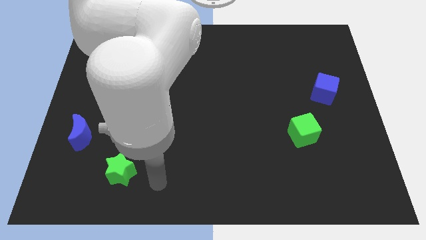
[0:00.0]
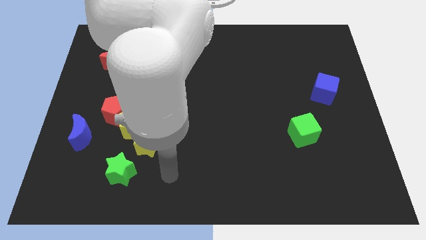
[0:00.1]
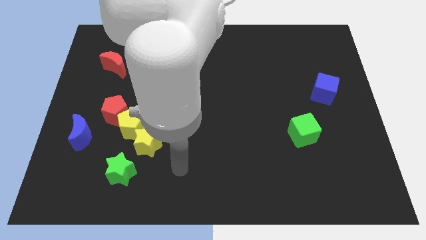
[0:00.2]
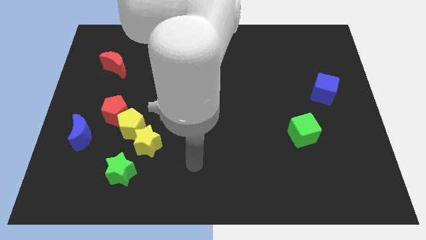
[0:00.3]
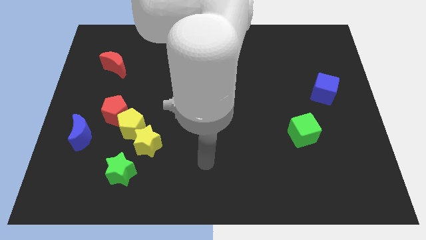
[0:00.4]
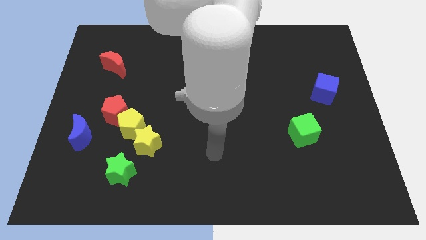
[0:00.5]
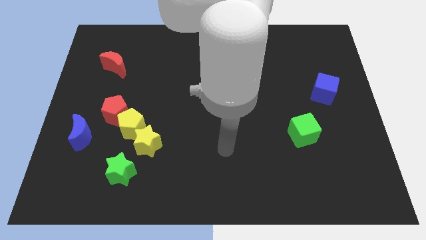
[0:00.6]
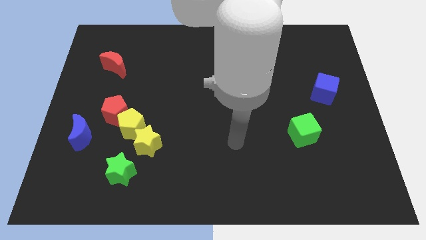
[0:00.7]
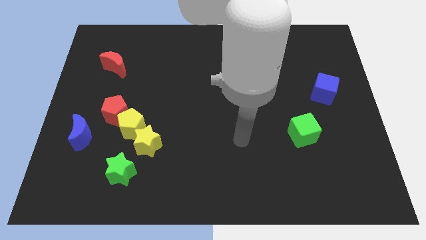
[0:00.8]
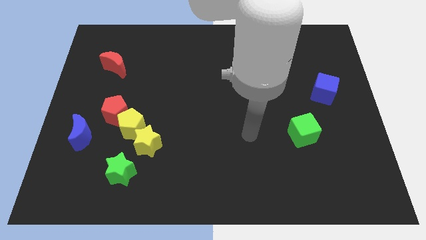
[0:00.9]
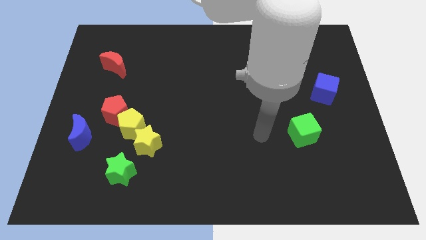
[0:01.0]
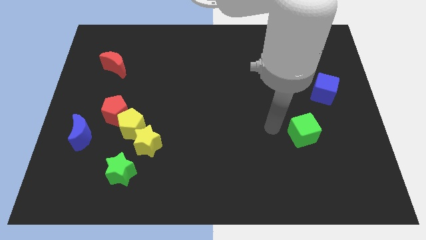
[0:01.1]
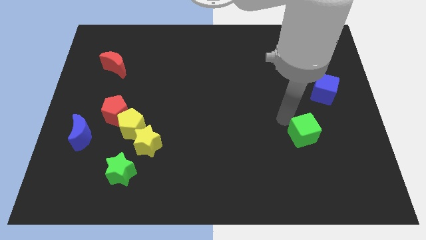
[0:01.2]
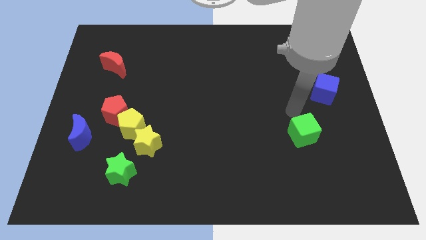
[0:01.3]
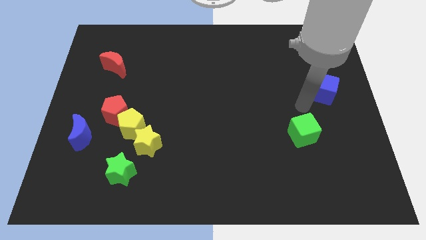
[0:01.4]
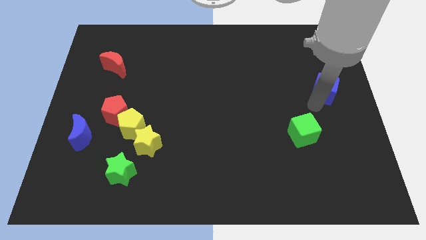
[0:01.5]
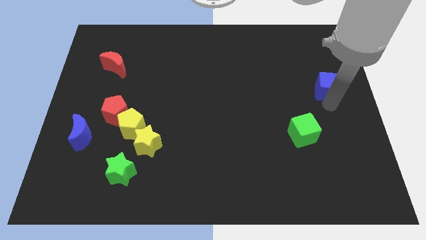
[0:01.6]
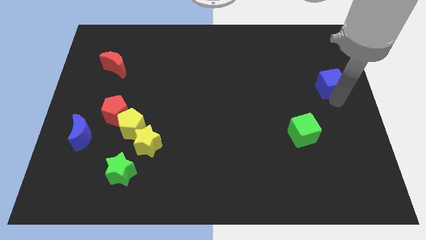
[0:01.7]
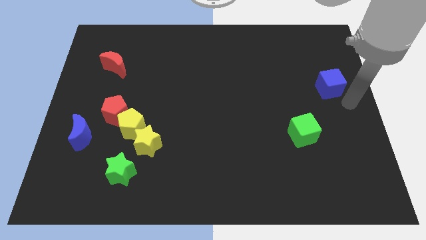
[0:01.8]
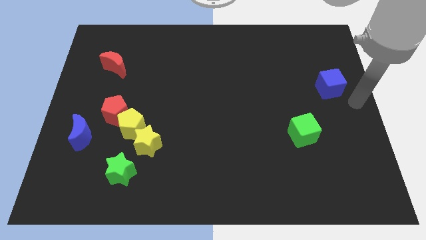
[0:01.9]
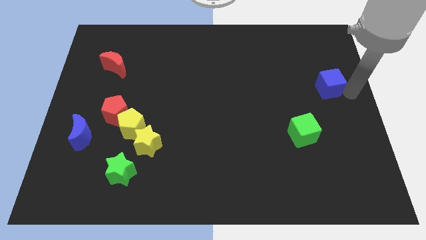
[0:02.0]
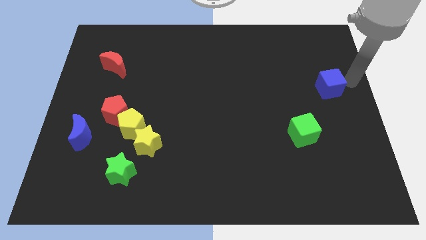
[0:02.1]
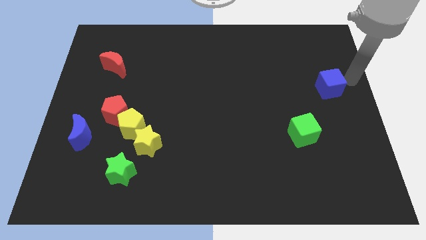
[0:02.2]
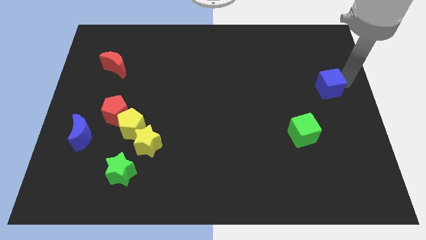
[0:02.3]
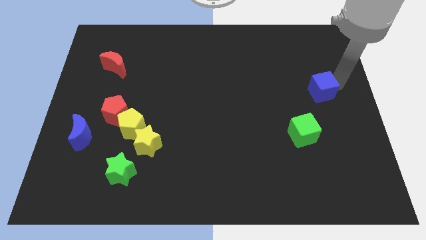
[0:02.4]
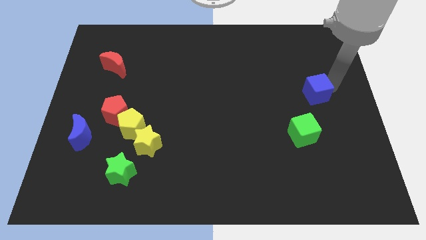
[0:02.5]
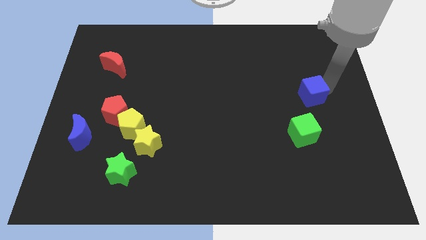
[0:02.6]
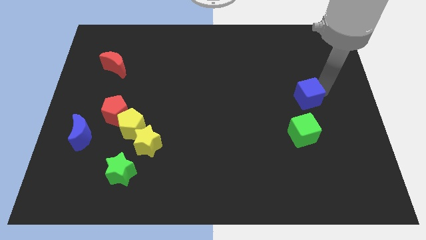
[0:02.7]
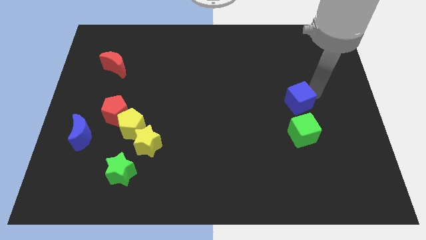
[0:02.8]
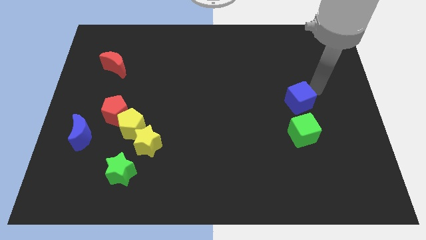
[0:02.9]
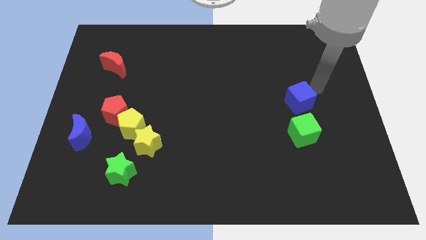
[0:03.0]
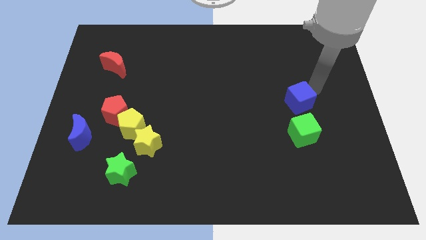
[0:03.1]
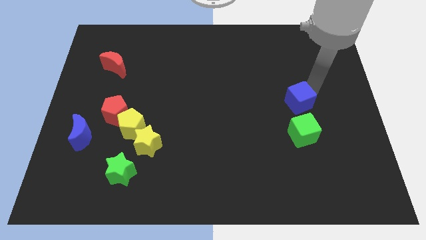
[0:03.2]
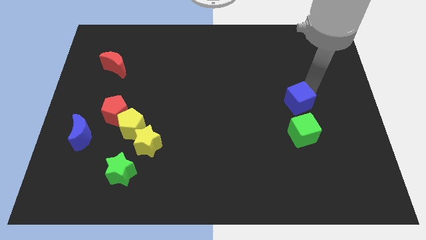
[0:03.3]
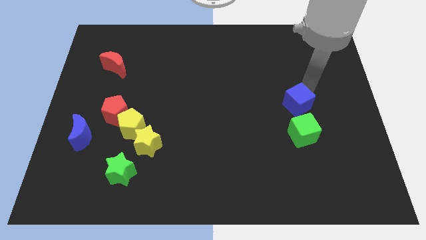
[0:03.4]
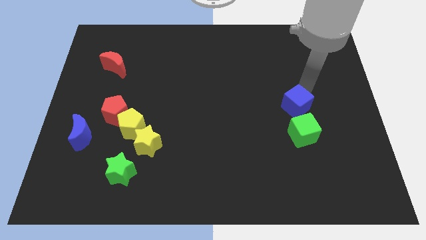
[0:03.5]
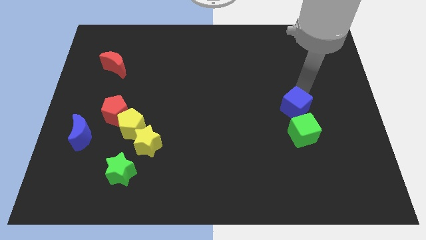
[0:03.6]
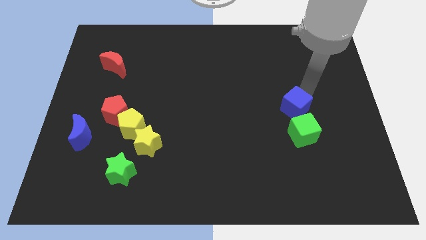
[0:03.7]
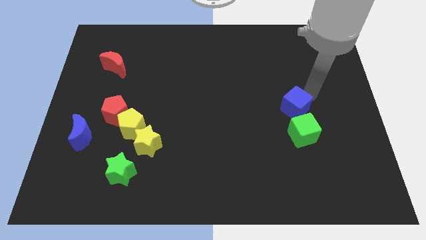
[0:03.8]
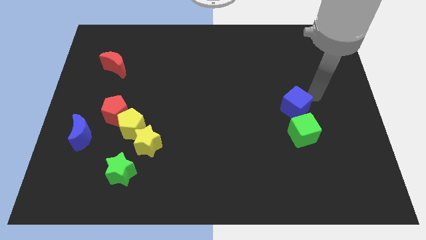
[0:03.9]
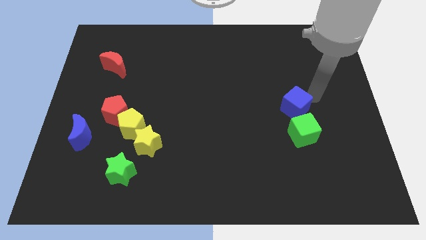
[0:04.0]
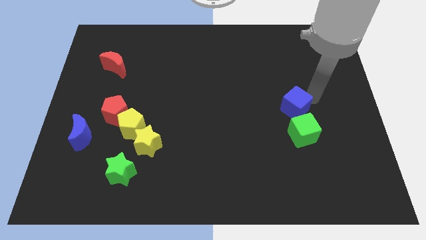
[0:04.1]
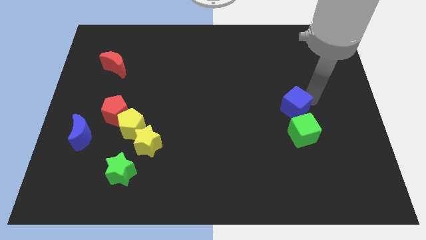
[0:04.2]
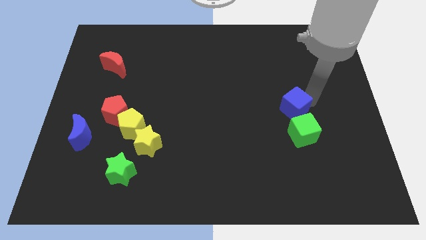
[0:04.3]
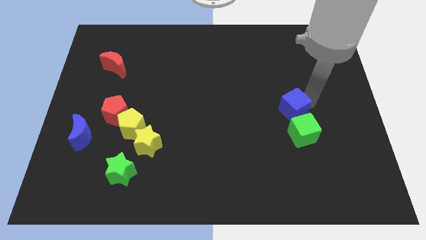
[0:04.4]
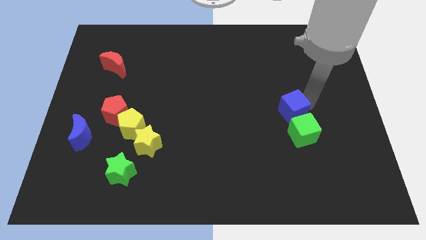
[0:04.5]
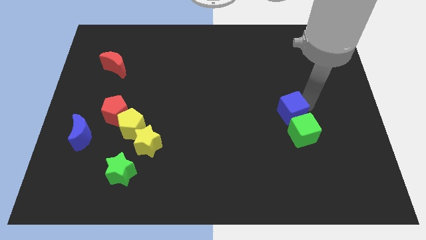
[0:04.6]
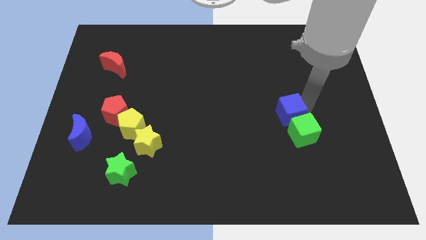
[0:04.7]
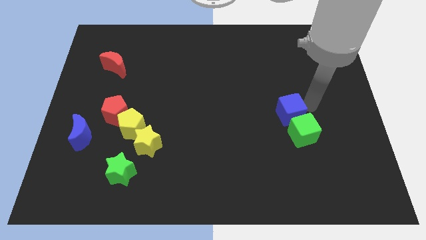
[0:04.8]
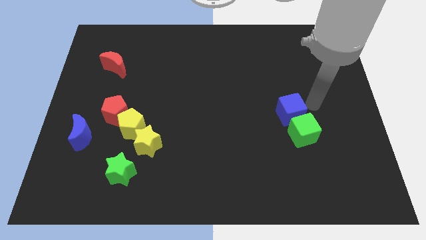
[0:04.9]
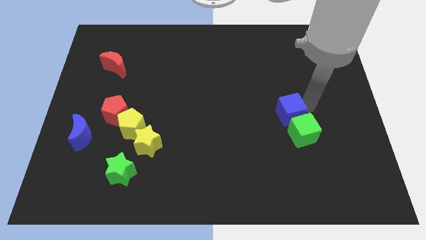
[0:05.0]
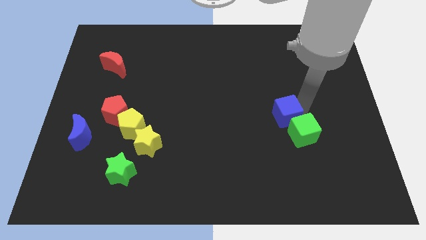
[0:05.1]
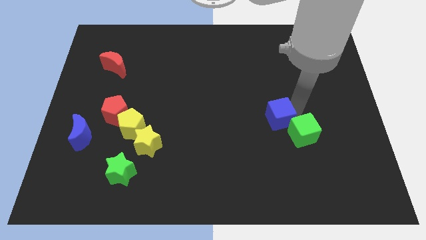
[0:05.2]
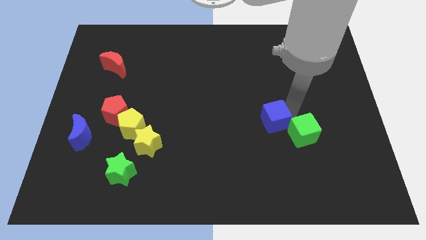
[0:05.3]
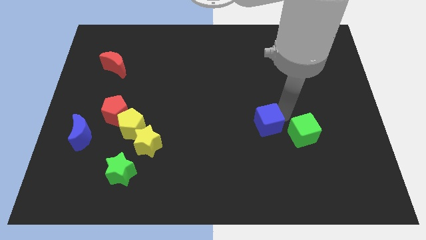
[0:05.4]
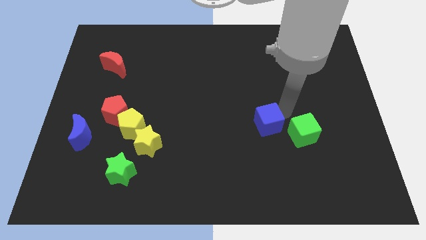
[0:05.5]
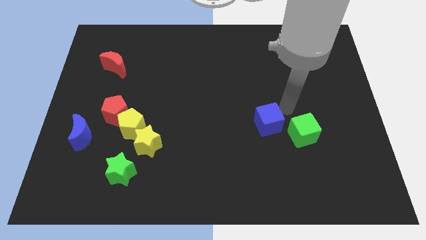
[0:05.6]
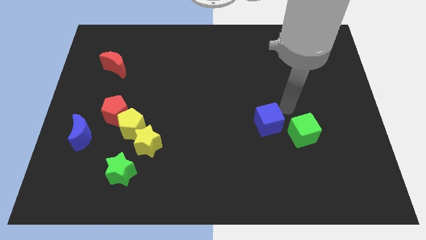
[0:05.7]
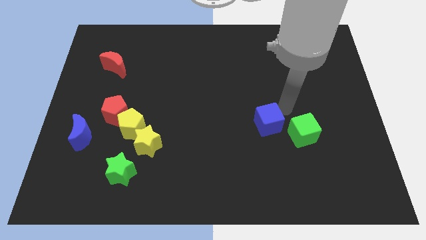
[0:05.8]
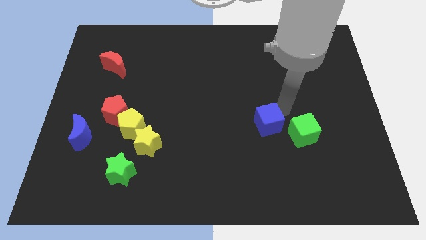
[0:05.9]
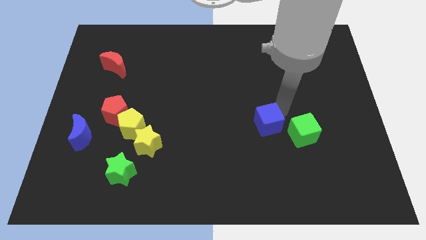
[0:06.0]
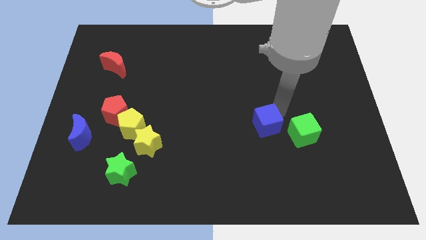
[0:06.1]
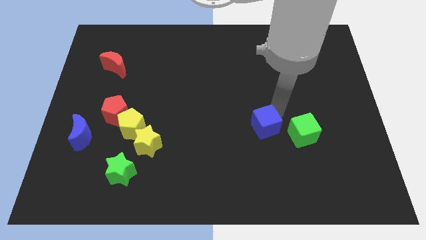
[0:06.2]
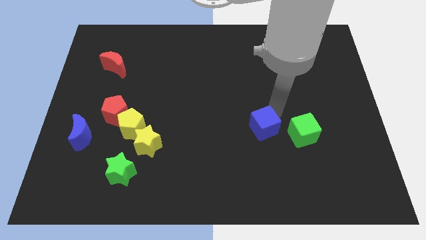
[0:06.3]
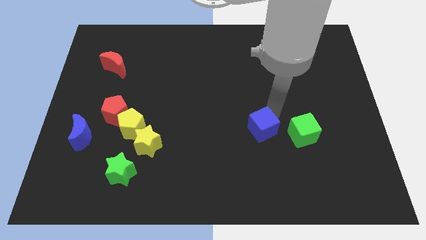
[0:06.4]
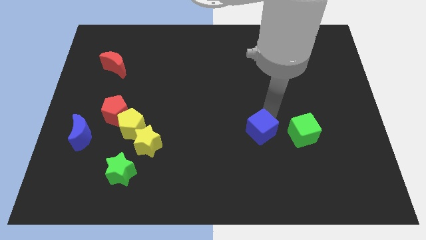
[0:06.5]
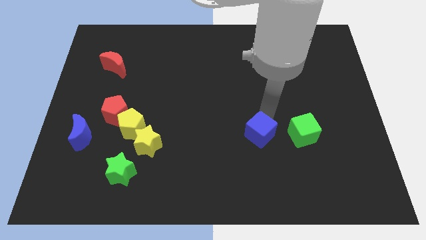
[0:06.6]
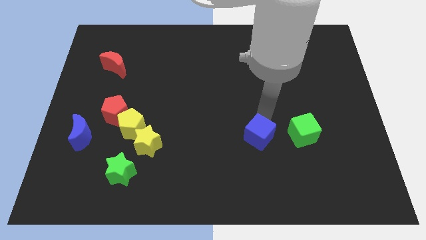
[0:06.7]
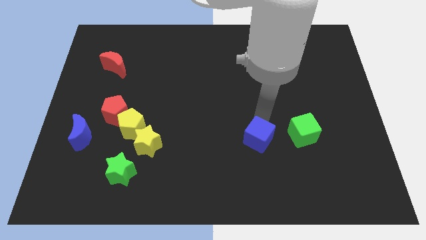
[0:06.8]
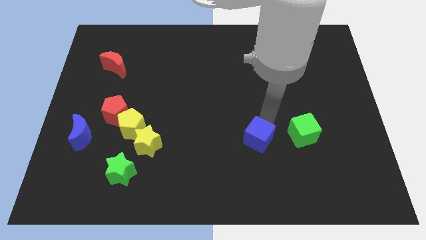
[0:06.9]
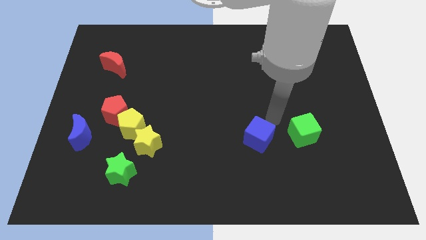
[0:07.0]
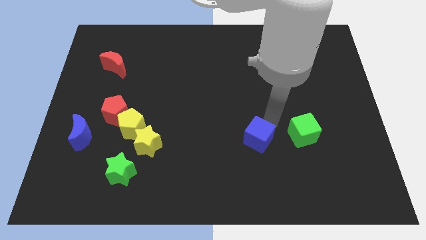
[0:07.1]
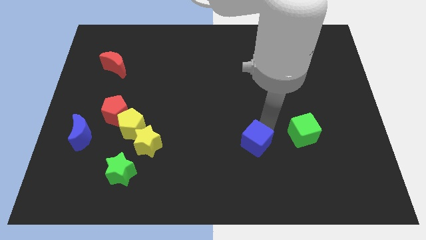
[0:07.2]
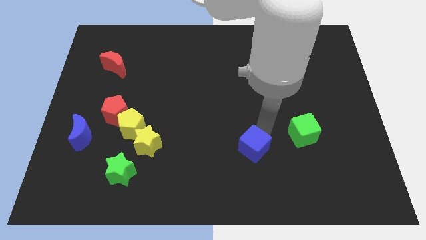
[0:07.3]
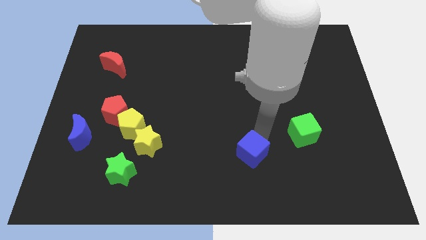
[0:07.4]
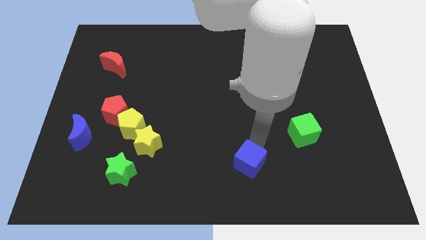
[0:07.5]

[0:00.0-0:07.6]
put the blue cube to the bottom

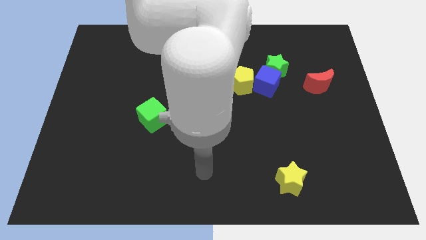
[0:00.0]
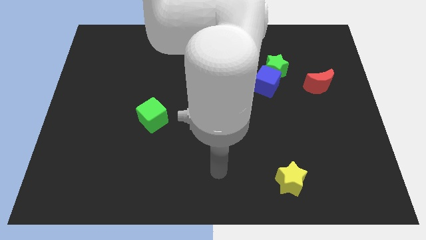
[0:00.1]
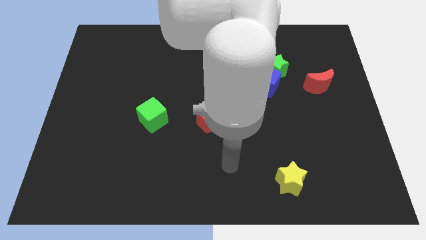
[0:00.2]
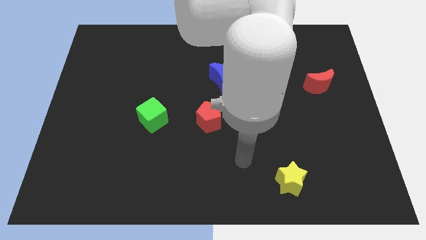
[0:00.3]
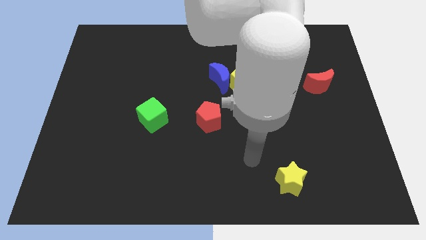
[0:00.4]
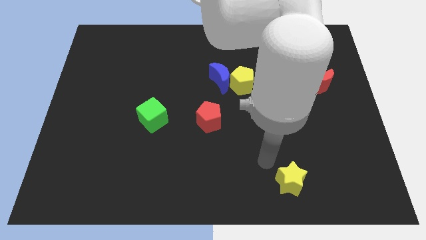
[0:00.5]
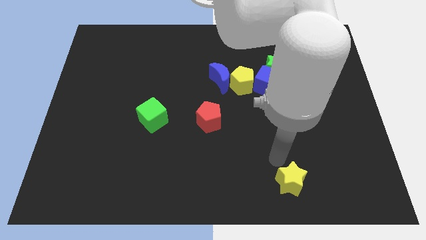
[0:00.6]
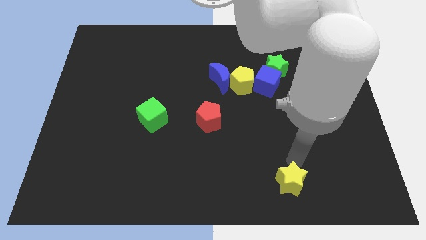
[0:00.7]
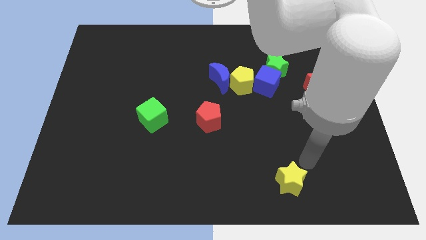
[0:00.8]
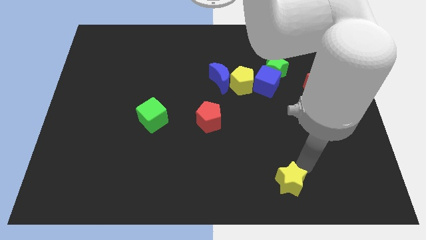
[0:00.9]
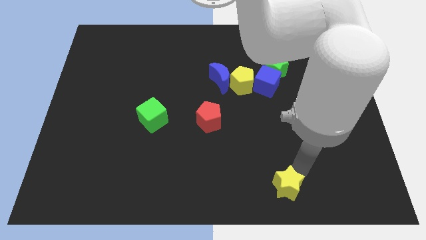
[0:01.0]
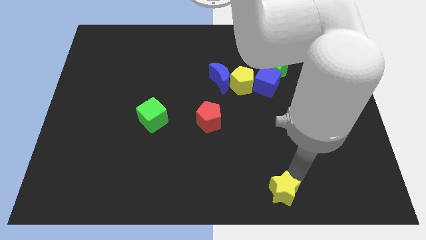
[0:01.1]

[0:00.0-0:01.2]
move the yellow star to the bottom side
